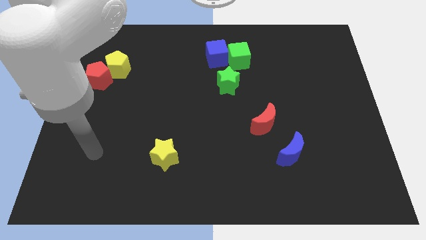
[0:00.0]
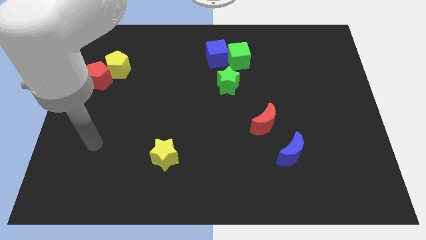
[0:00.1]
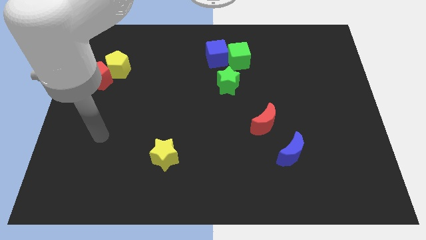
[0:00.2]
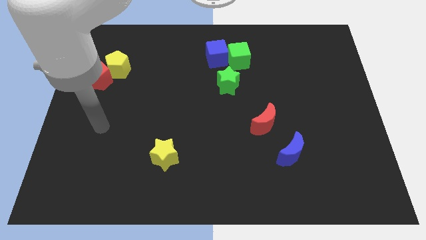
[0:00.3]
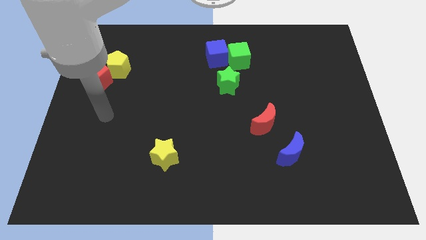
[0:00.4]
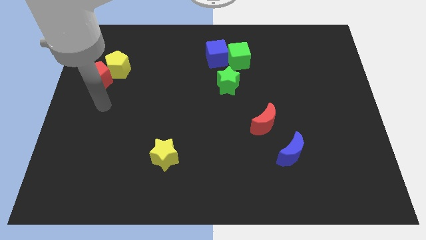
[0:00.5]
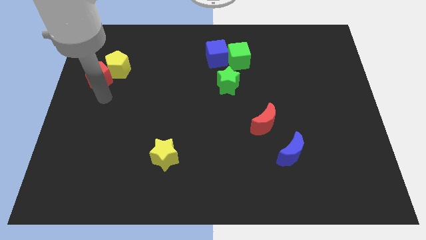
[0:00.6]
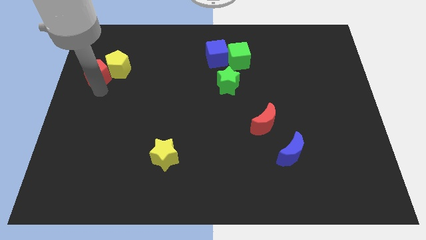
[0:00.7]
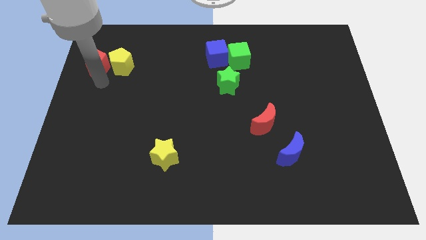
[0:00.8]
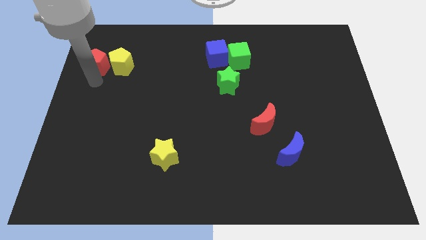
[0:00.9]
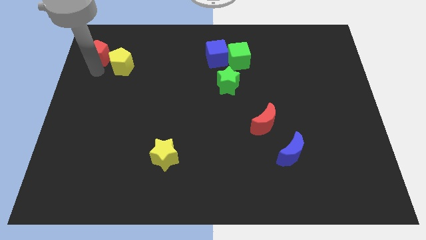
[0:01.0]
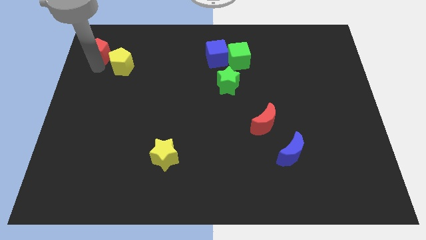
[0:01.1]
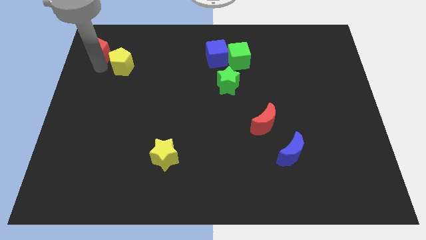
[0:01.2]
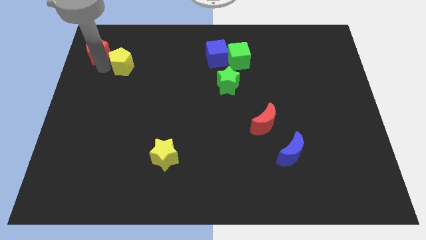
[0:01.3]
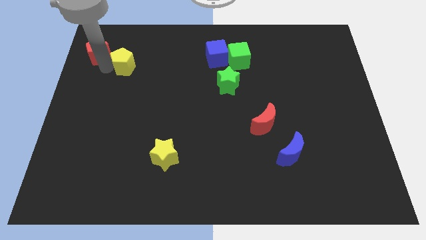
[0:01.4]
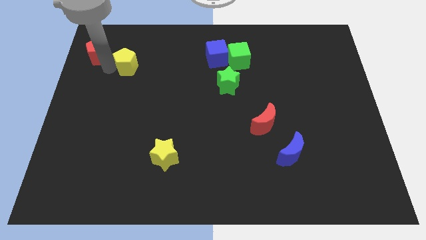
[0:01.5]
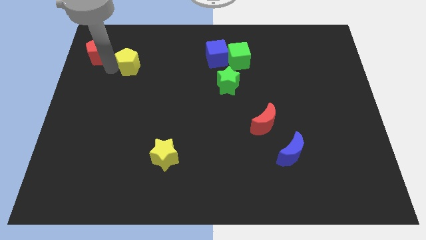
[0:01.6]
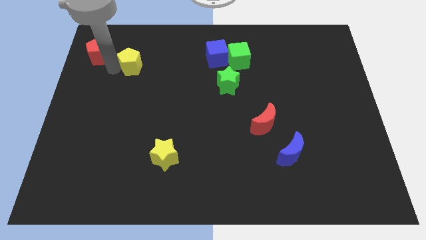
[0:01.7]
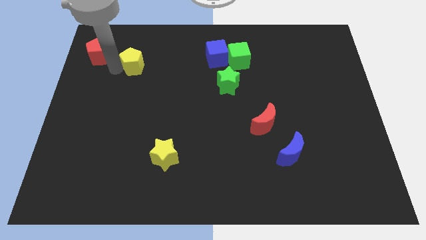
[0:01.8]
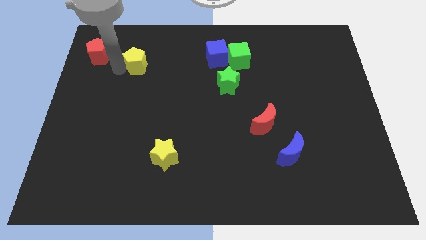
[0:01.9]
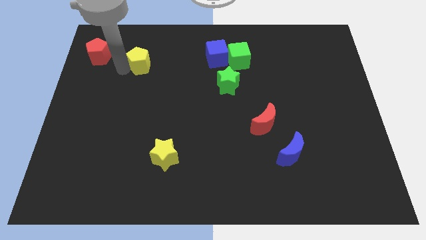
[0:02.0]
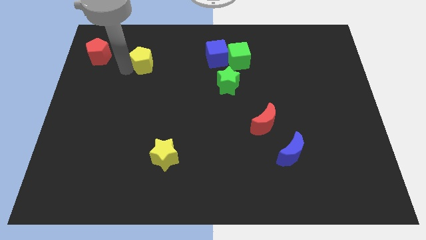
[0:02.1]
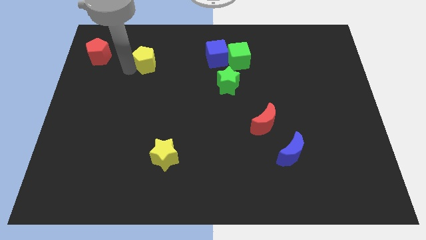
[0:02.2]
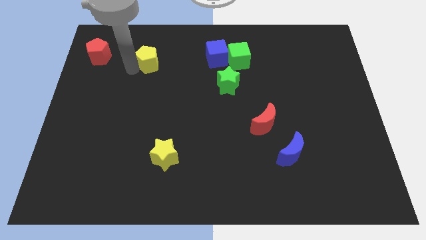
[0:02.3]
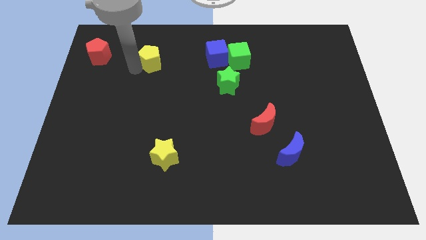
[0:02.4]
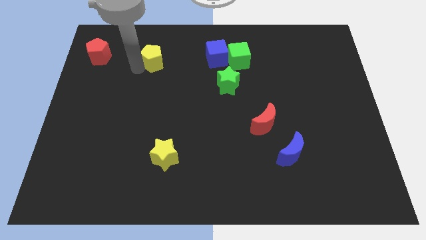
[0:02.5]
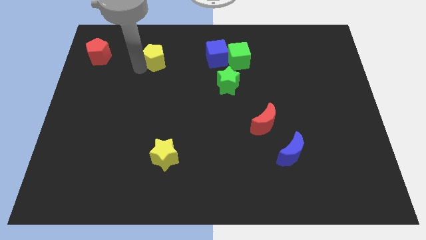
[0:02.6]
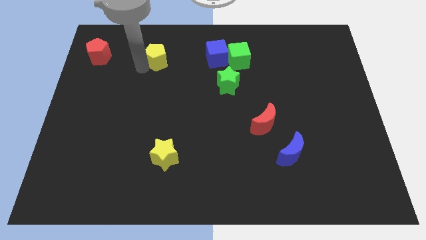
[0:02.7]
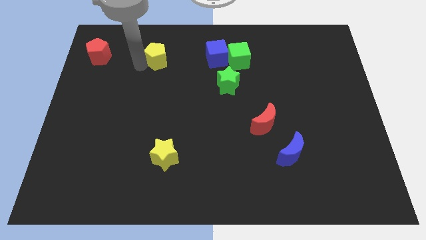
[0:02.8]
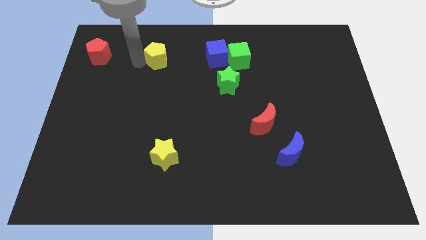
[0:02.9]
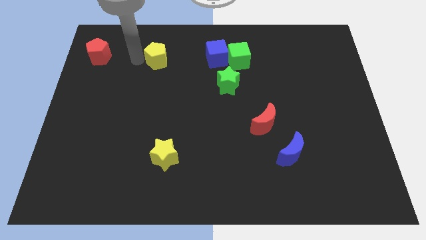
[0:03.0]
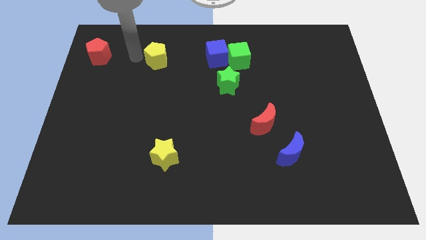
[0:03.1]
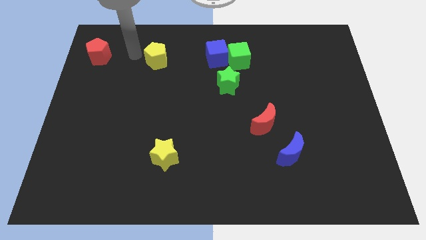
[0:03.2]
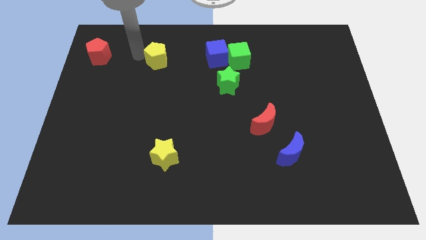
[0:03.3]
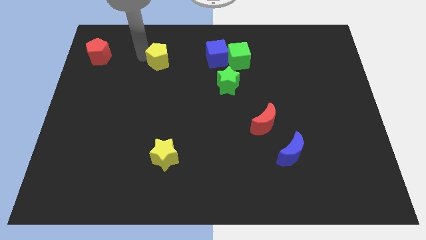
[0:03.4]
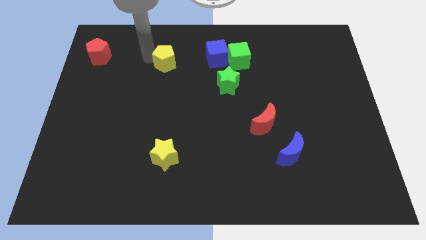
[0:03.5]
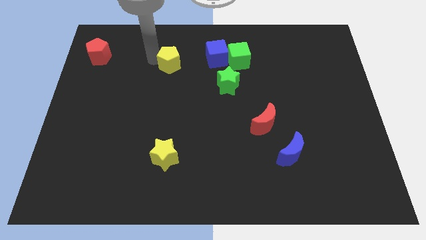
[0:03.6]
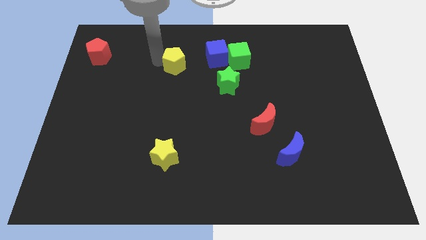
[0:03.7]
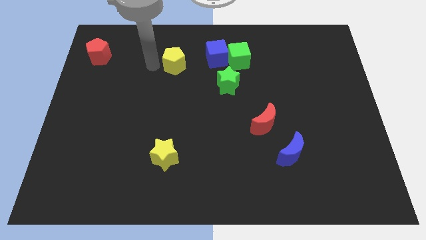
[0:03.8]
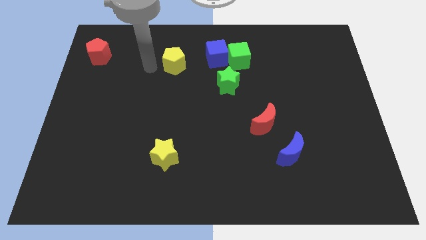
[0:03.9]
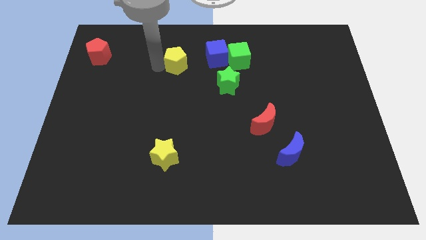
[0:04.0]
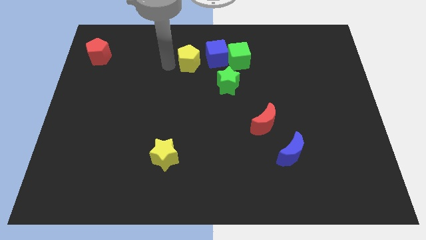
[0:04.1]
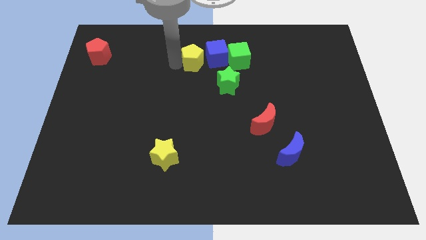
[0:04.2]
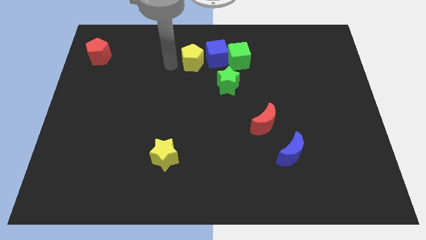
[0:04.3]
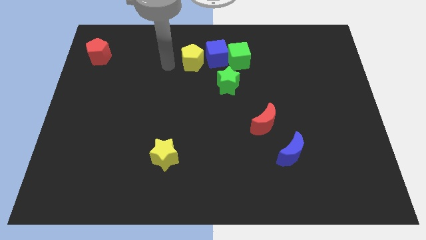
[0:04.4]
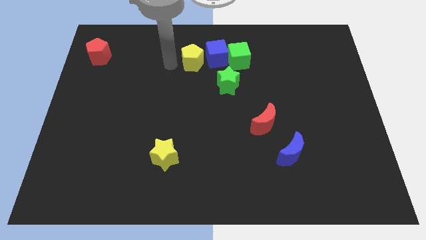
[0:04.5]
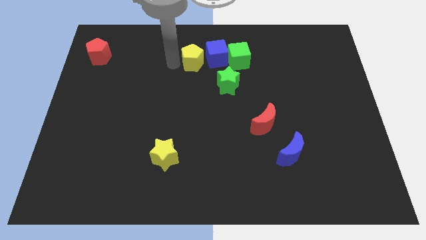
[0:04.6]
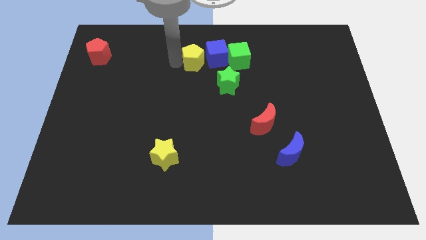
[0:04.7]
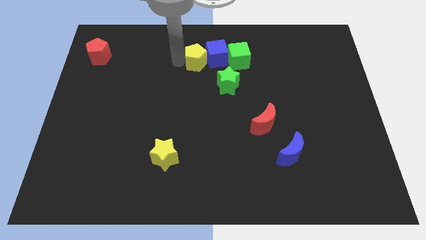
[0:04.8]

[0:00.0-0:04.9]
push the yellow pentagon close to the blue cube

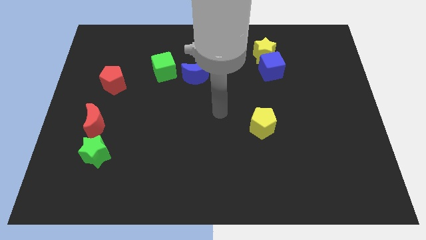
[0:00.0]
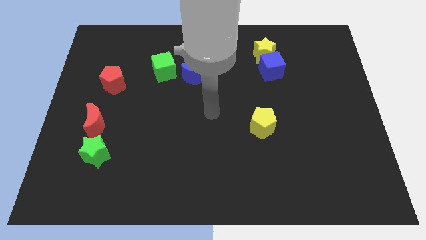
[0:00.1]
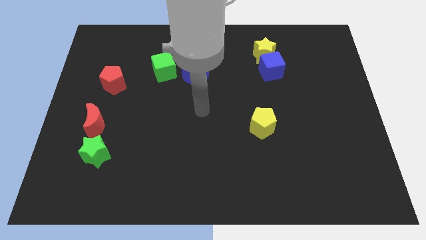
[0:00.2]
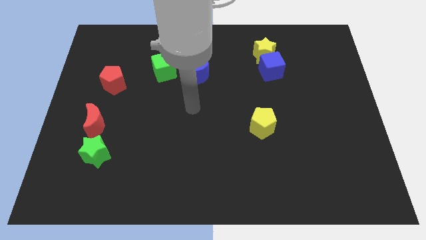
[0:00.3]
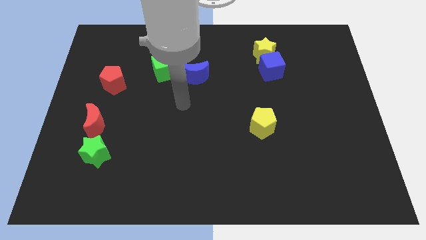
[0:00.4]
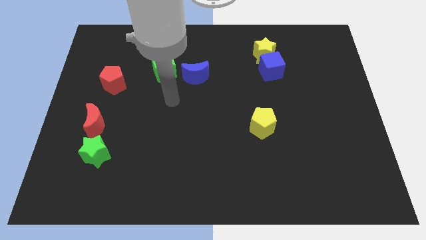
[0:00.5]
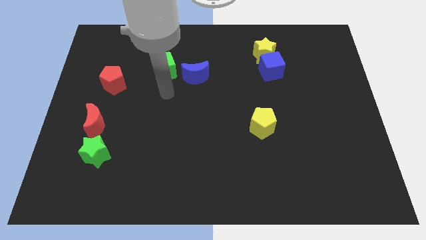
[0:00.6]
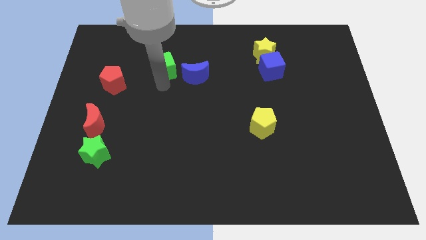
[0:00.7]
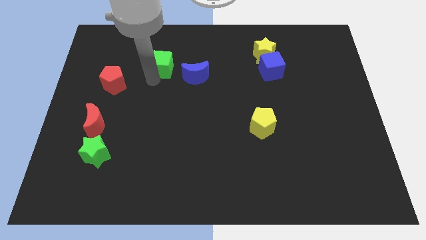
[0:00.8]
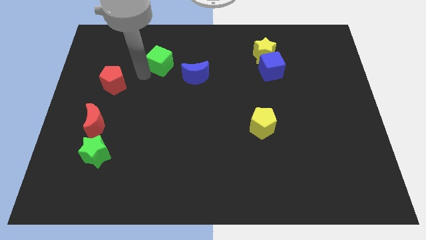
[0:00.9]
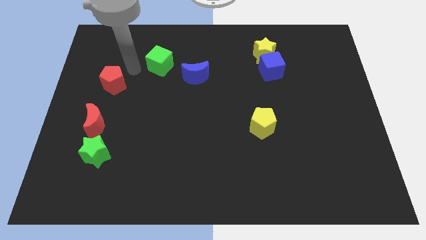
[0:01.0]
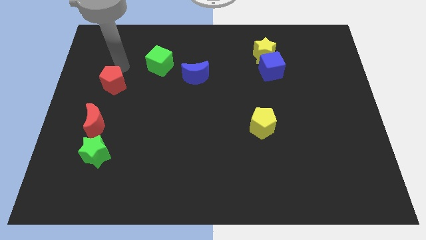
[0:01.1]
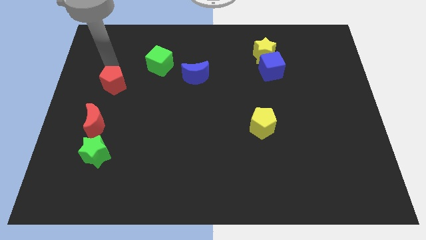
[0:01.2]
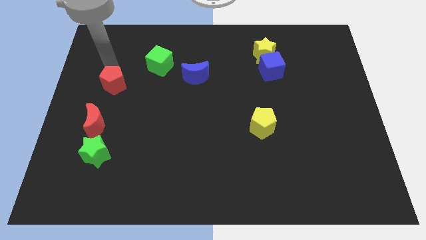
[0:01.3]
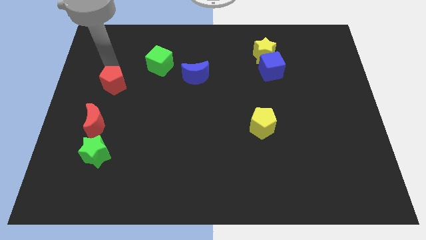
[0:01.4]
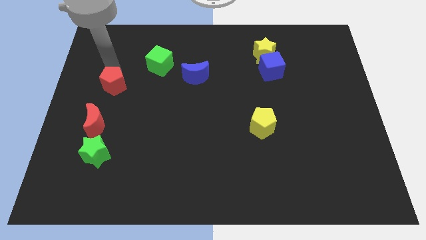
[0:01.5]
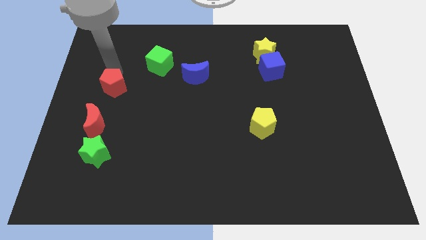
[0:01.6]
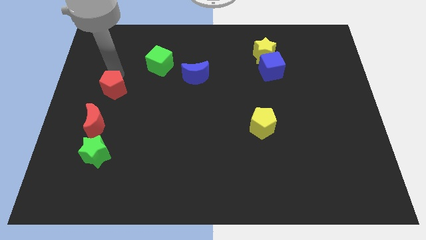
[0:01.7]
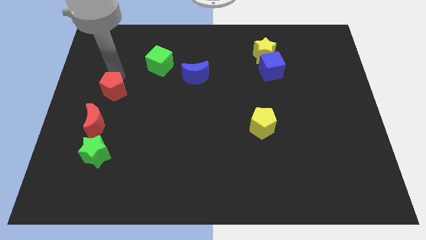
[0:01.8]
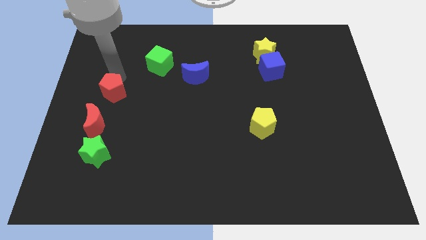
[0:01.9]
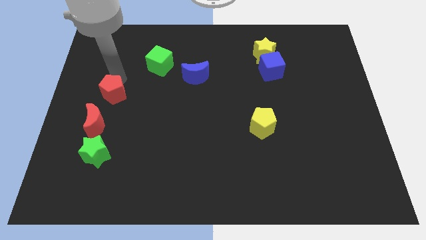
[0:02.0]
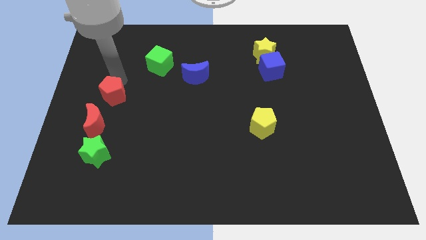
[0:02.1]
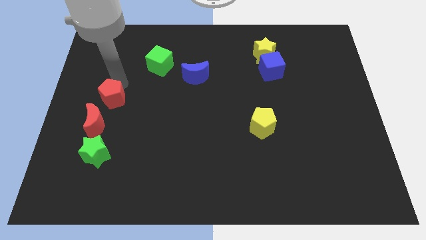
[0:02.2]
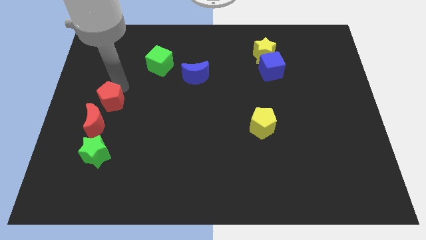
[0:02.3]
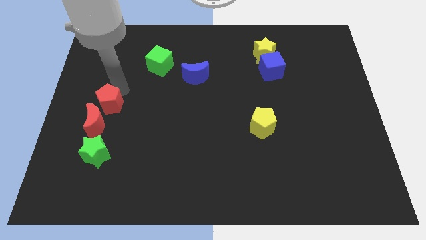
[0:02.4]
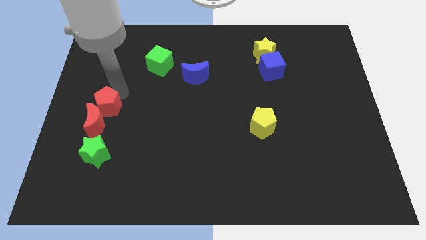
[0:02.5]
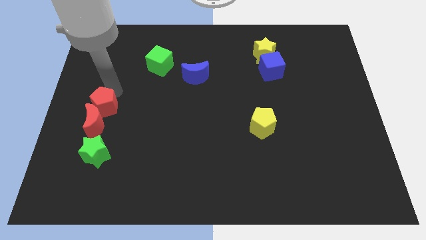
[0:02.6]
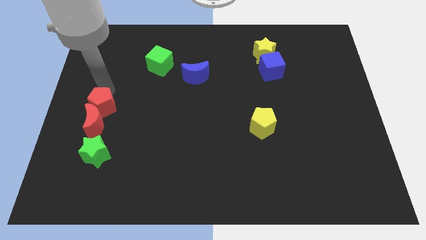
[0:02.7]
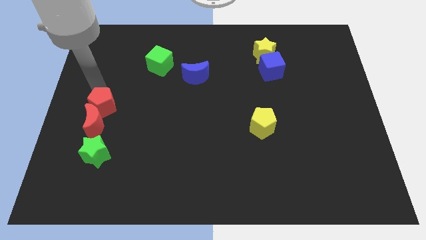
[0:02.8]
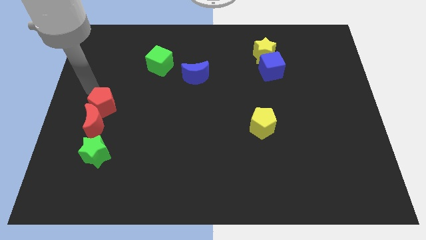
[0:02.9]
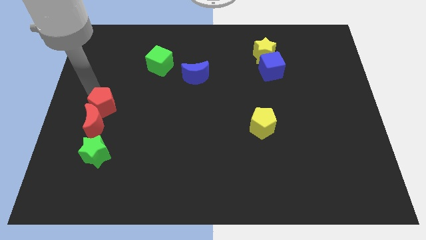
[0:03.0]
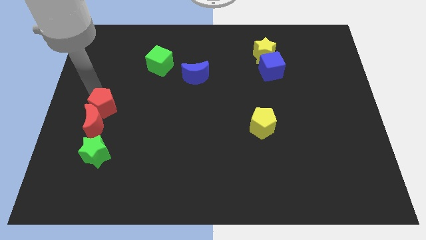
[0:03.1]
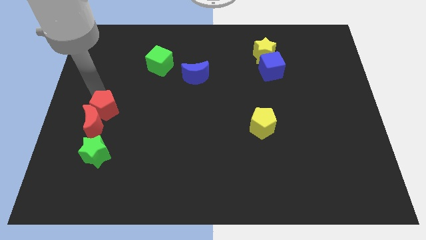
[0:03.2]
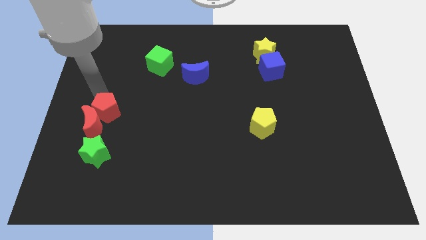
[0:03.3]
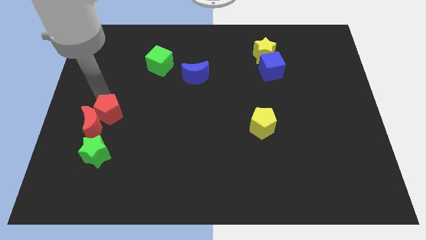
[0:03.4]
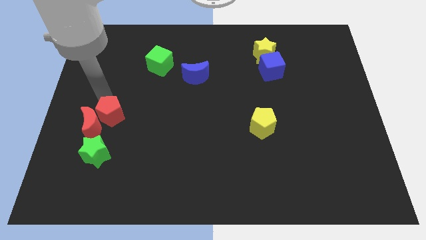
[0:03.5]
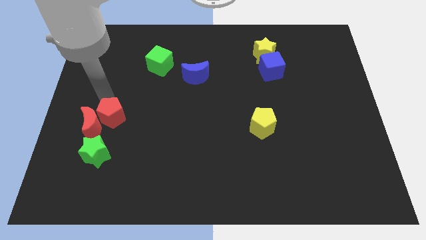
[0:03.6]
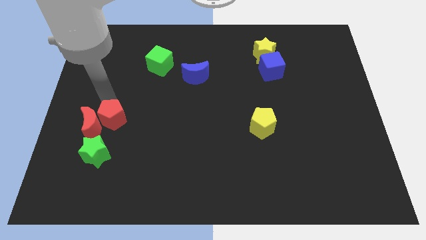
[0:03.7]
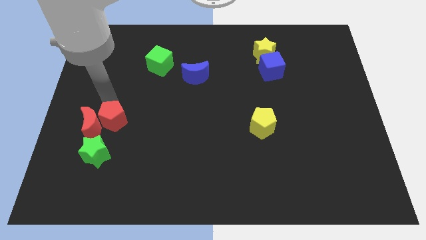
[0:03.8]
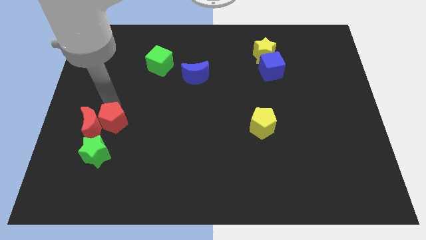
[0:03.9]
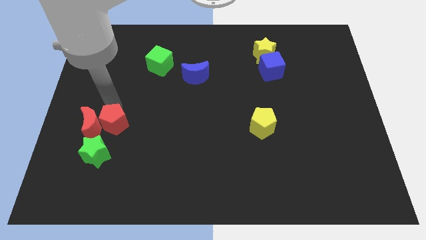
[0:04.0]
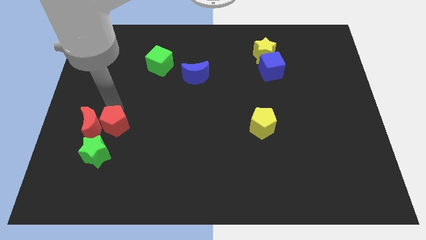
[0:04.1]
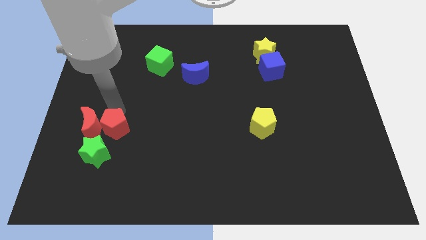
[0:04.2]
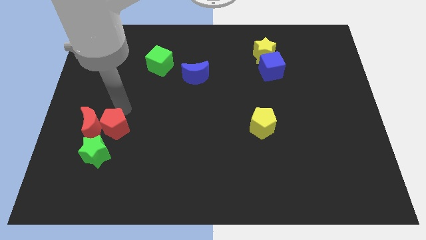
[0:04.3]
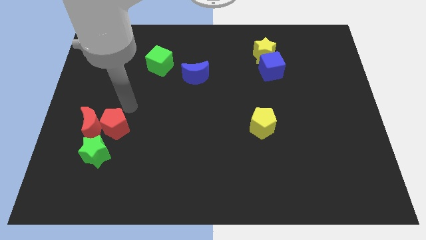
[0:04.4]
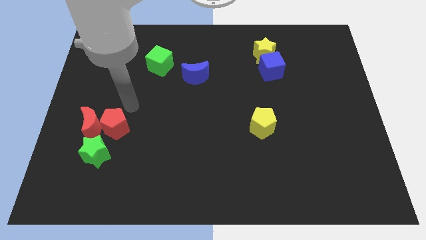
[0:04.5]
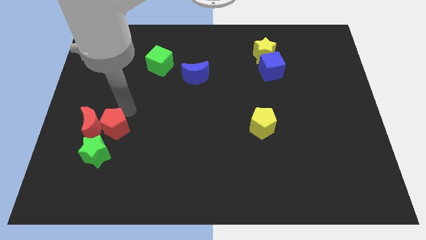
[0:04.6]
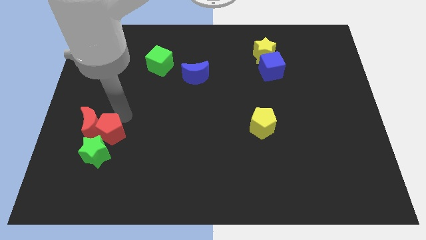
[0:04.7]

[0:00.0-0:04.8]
slide the red pentagon close to the green star
